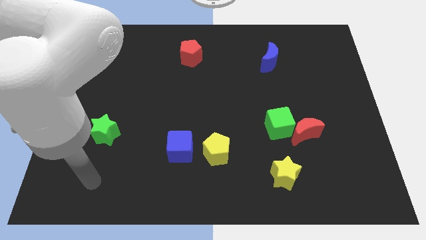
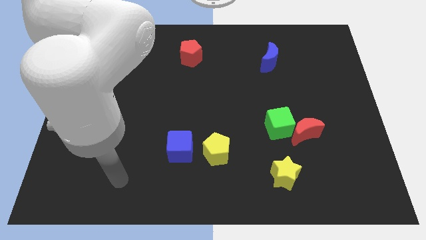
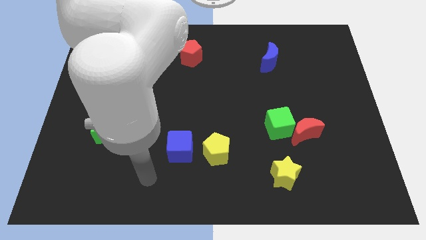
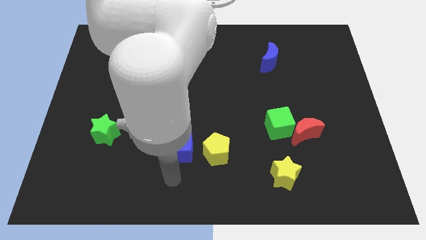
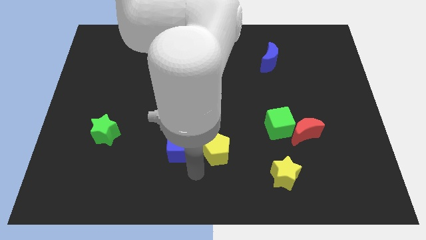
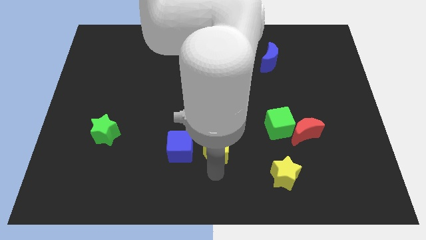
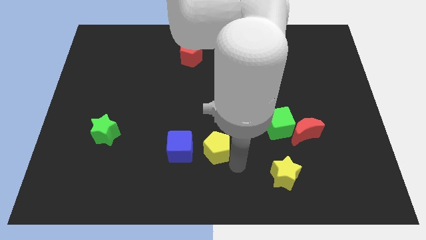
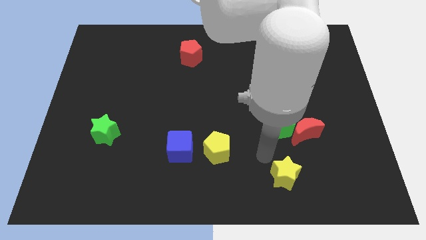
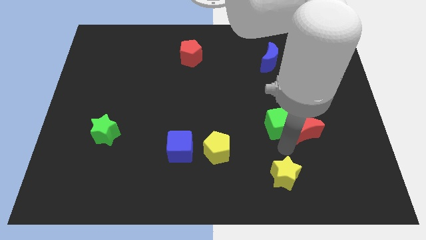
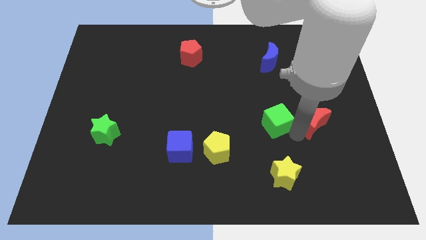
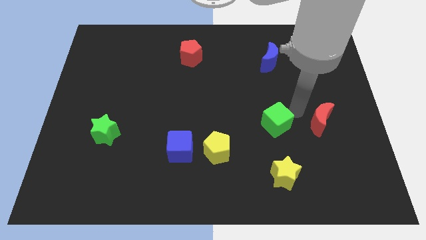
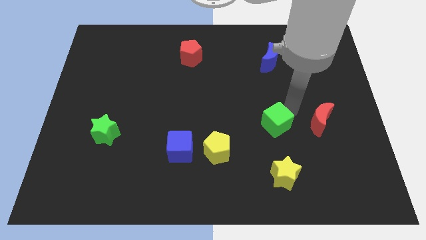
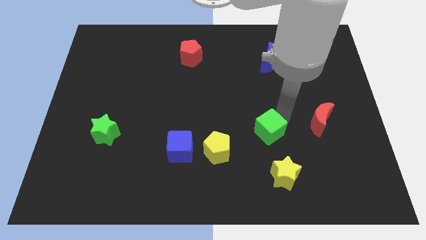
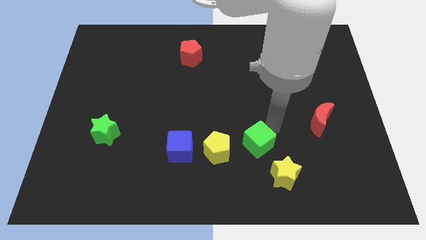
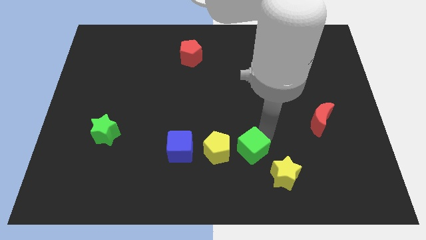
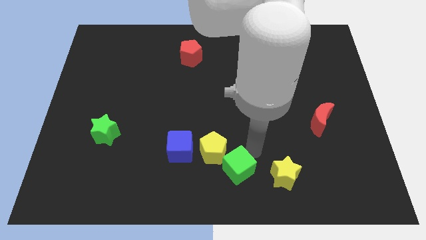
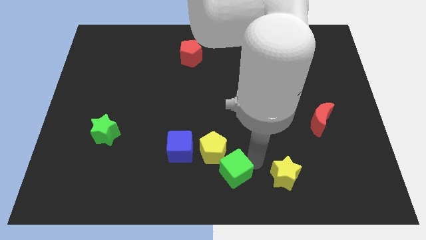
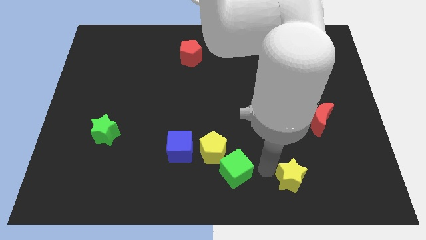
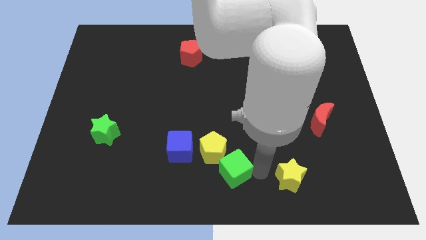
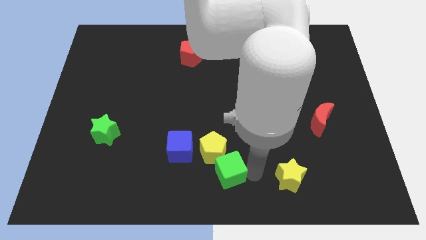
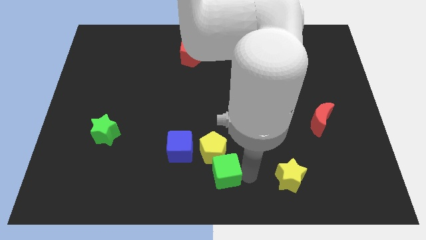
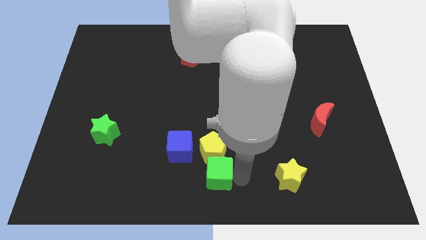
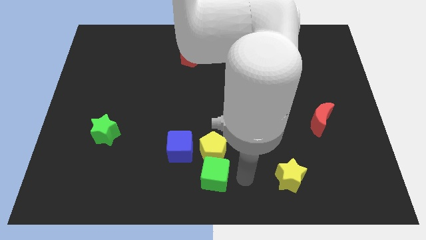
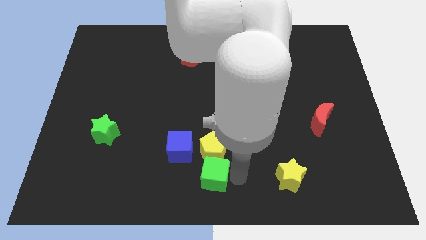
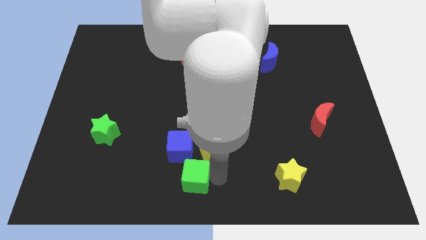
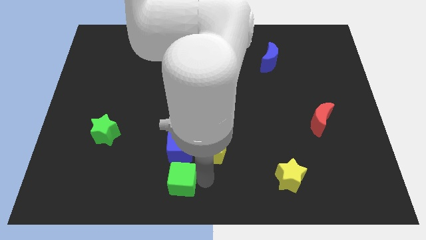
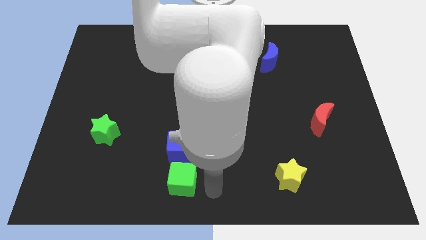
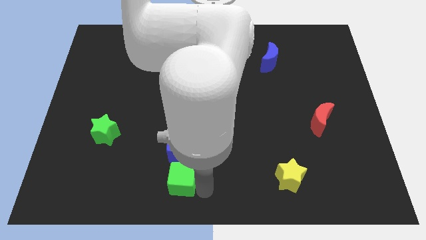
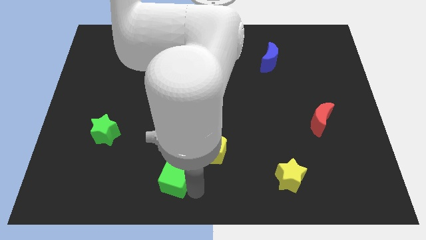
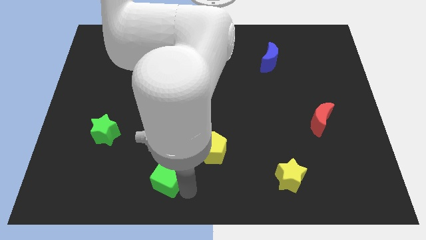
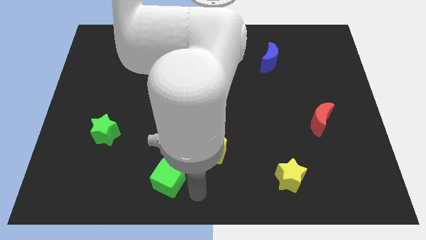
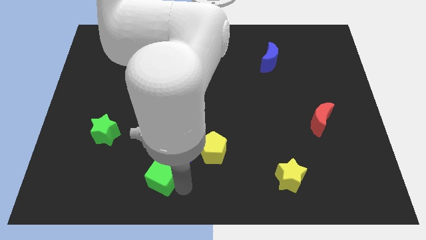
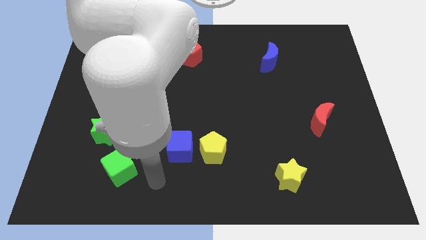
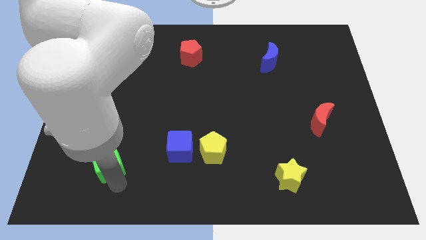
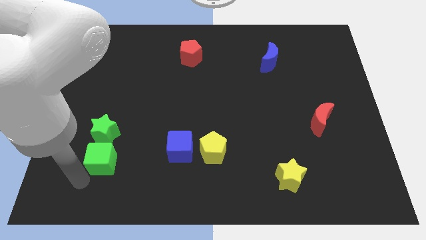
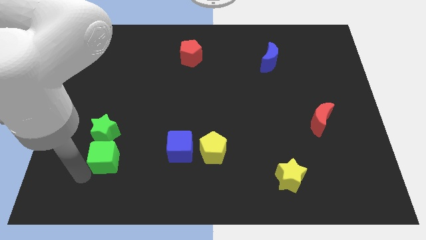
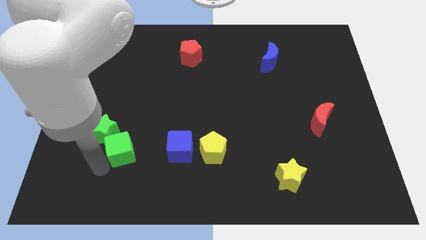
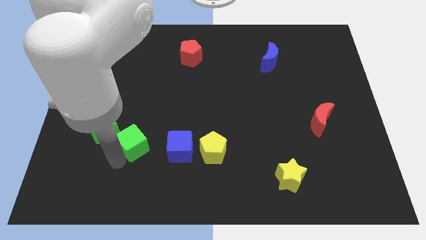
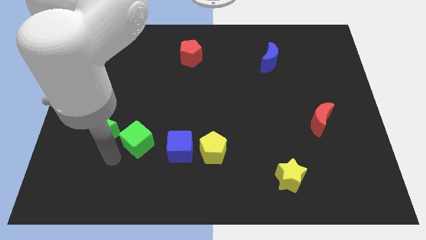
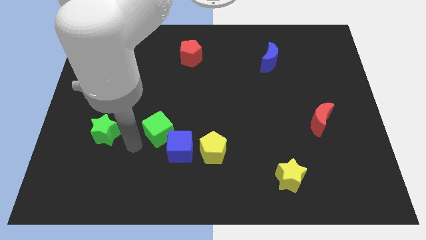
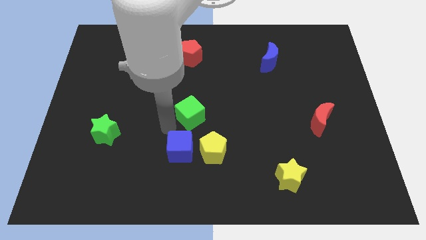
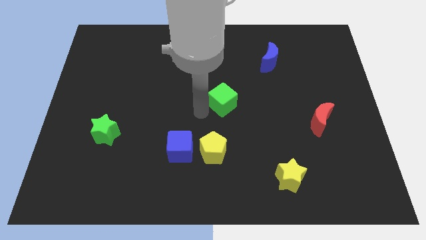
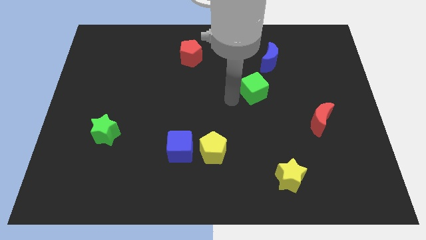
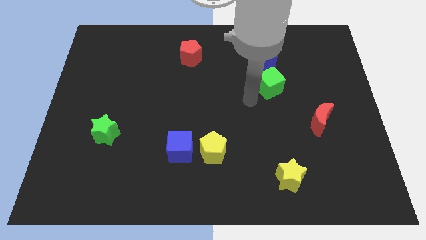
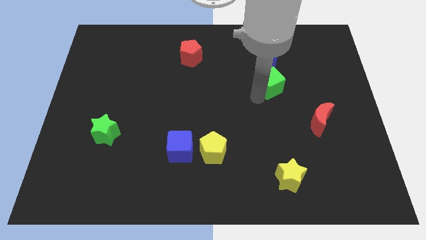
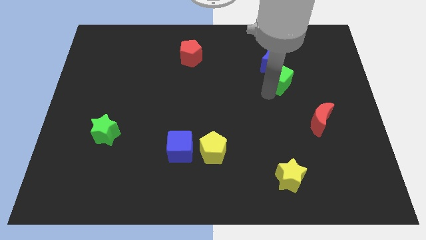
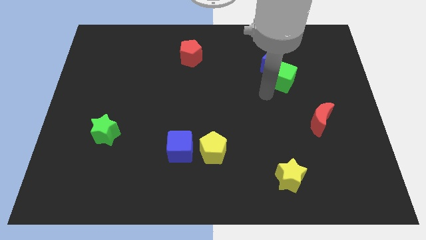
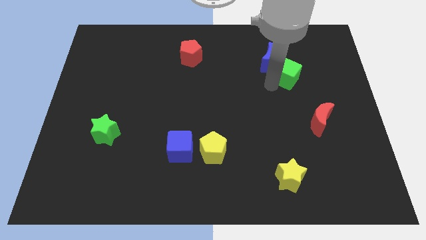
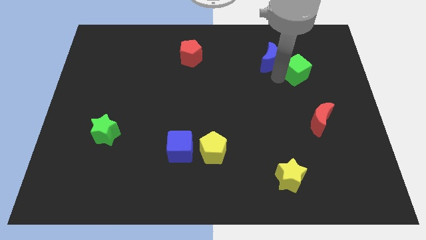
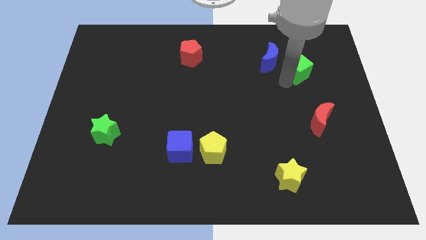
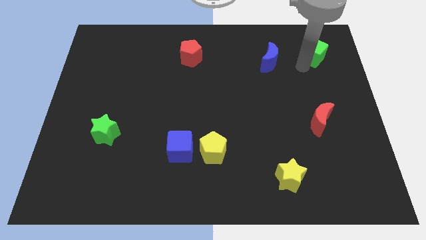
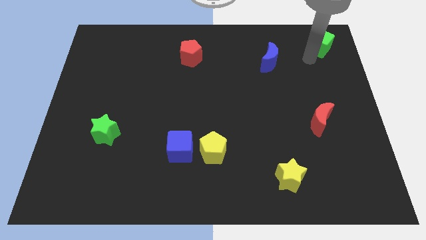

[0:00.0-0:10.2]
put the green cube to the top right of the board

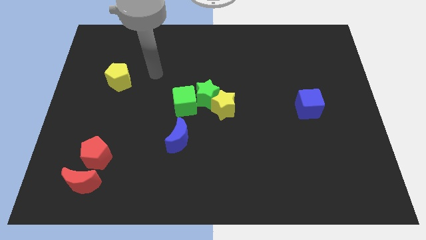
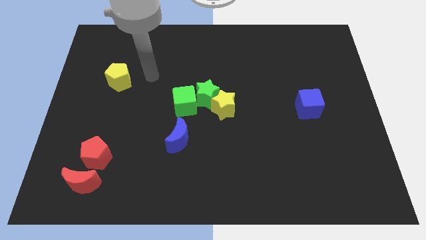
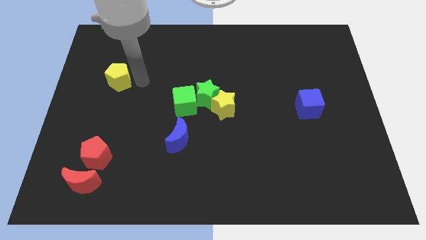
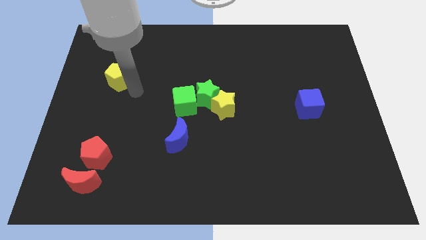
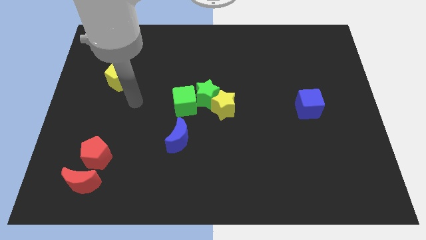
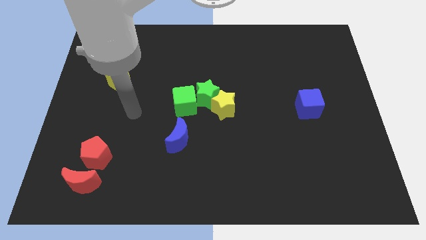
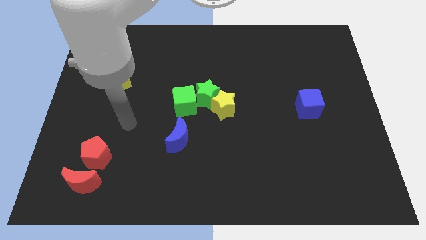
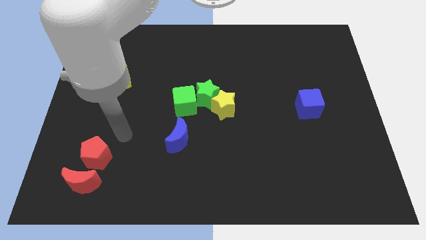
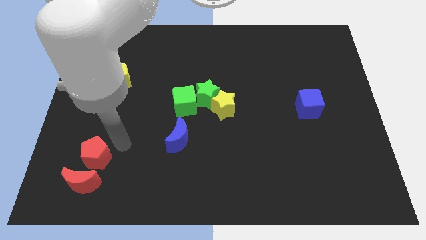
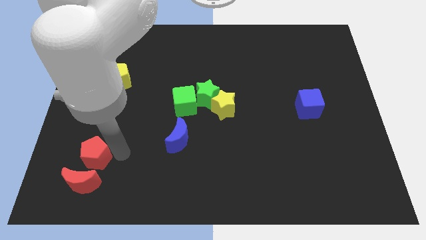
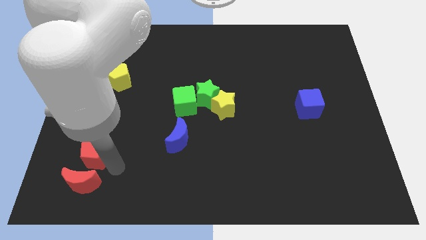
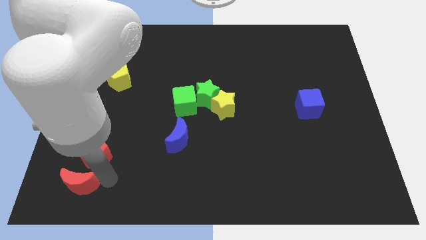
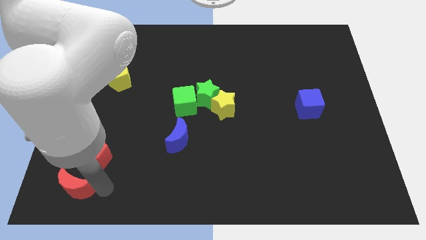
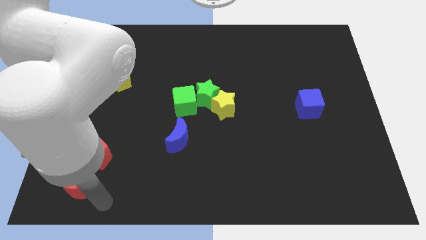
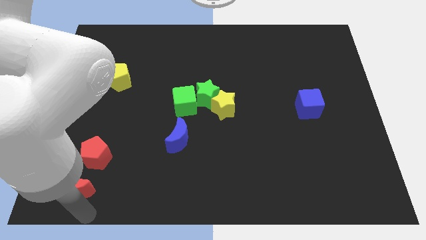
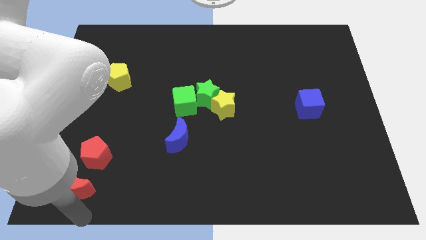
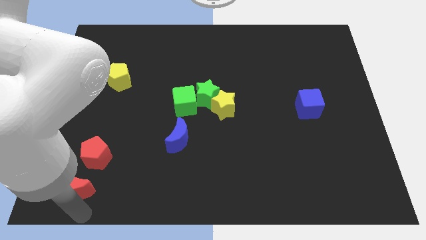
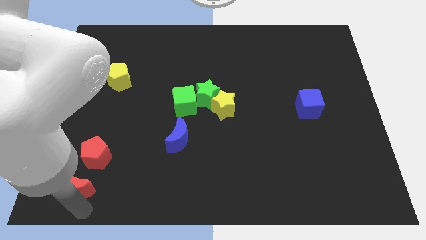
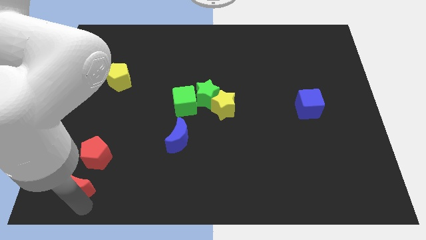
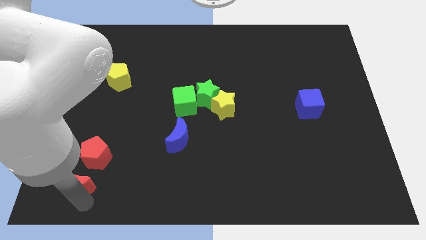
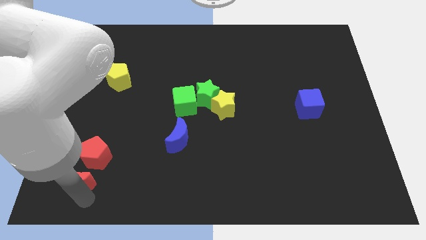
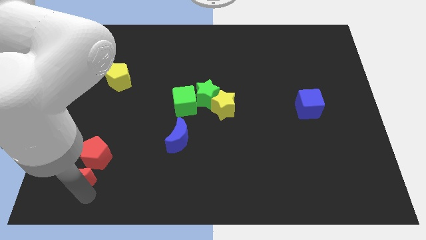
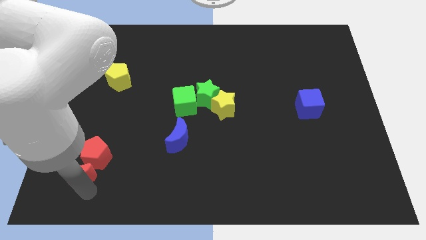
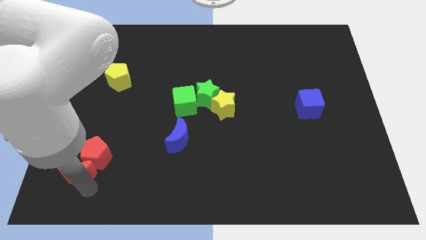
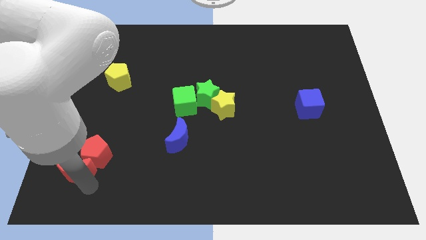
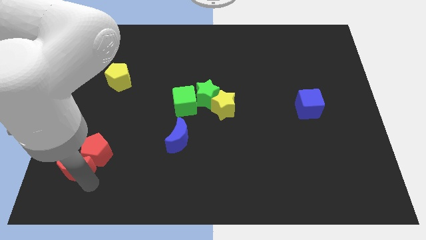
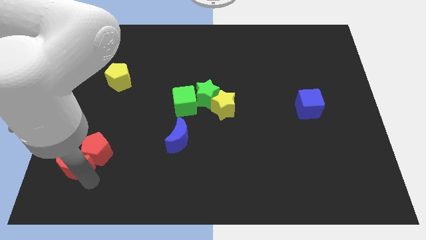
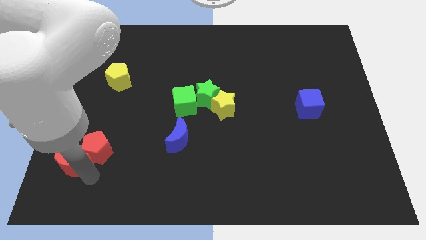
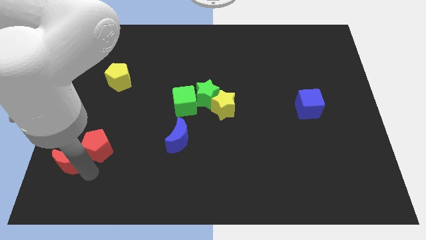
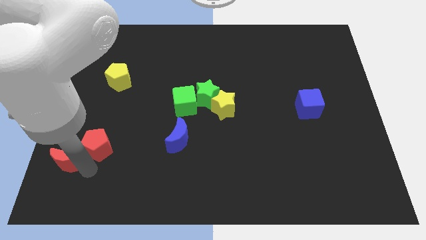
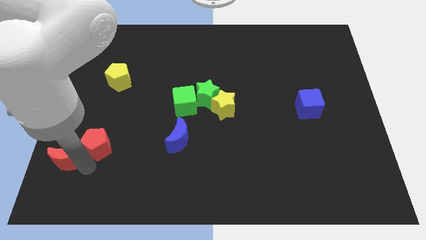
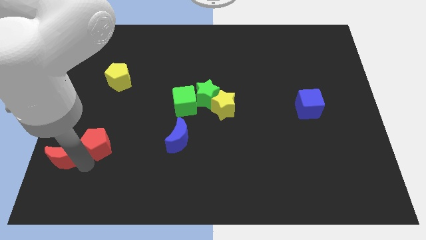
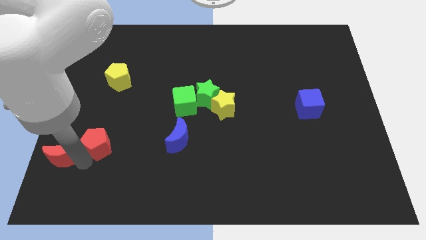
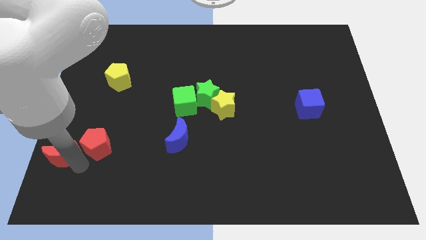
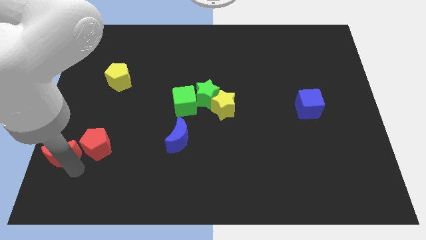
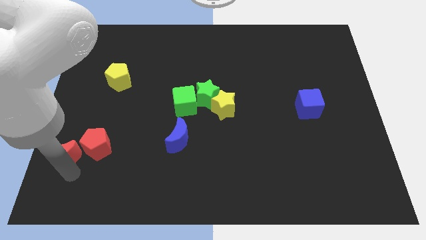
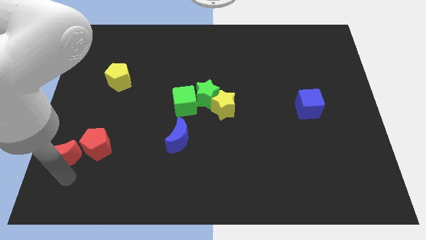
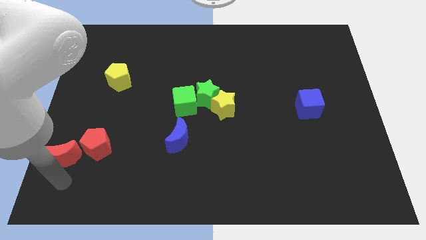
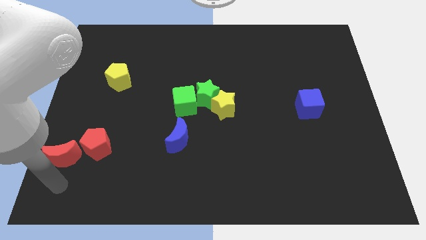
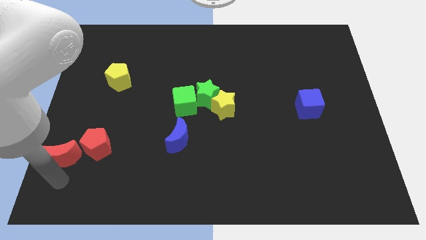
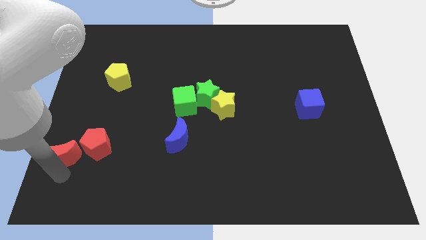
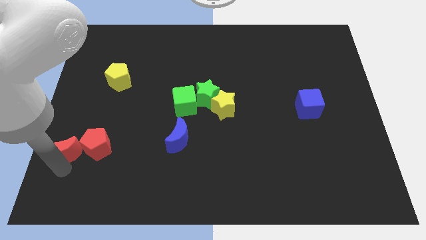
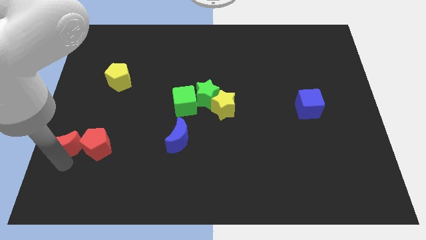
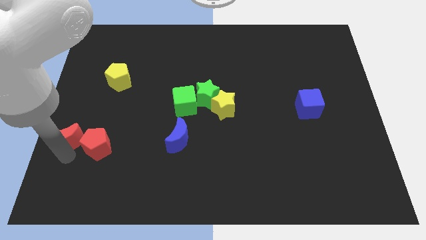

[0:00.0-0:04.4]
put the red moon to the center left
